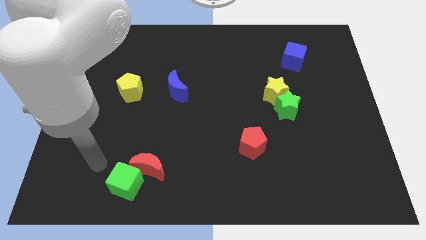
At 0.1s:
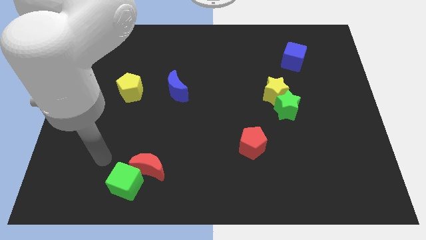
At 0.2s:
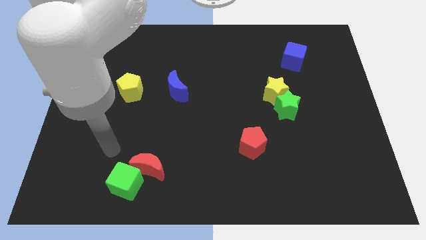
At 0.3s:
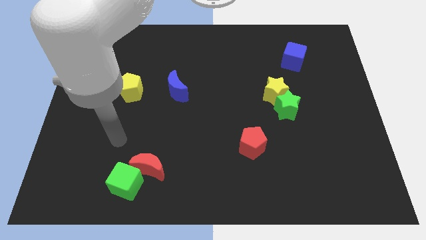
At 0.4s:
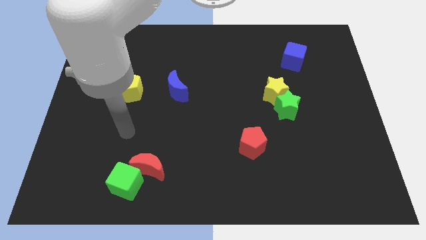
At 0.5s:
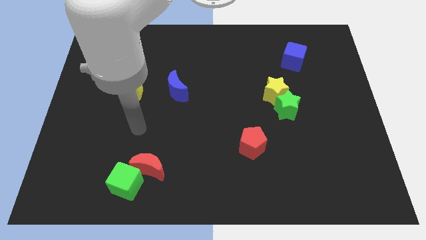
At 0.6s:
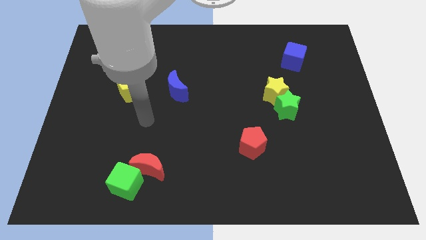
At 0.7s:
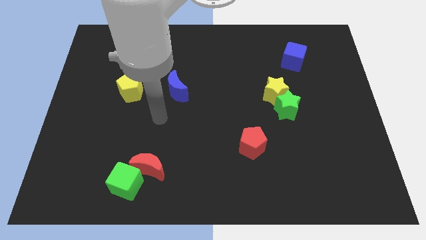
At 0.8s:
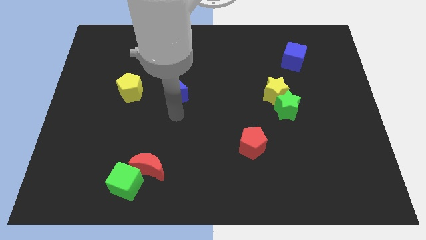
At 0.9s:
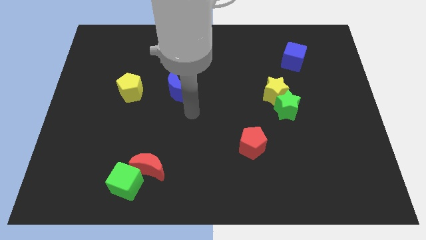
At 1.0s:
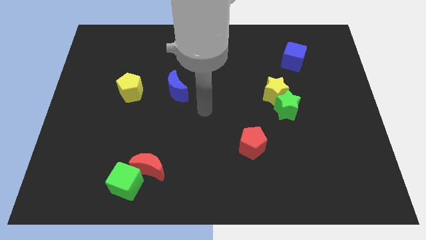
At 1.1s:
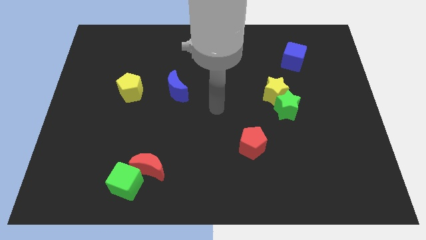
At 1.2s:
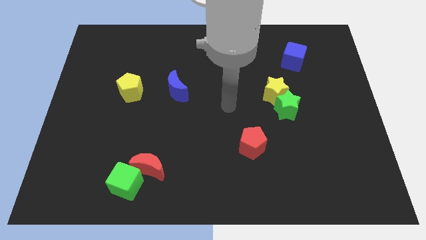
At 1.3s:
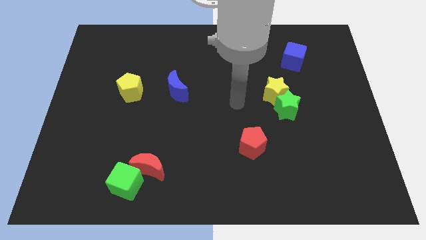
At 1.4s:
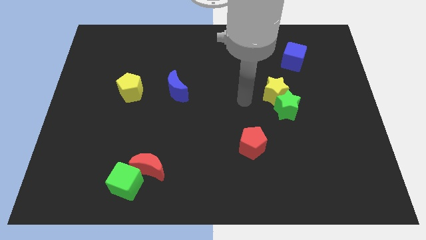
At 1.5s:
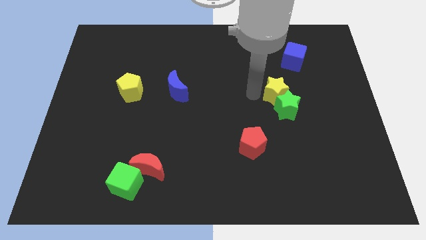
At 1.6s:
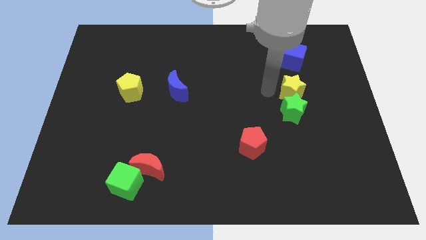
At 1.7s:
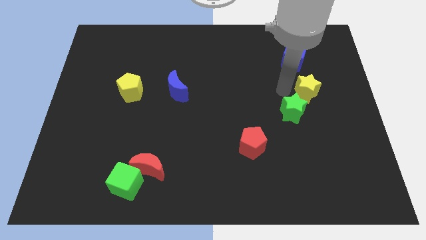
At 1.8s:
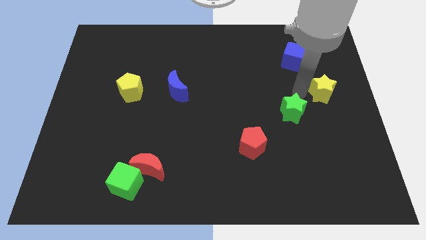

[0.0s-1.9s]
move the green star away from the yellow star

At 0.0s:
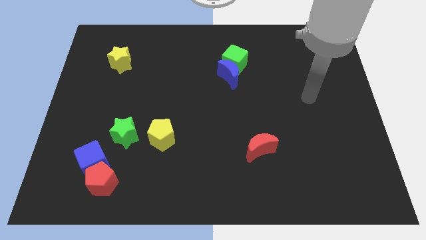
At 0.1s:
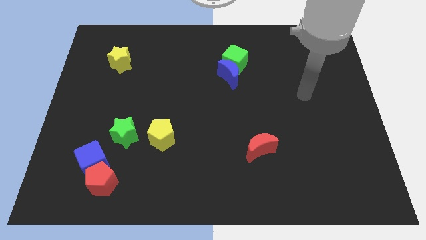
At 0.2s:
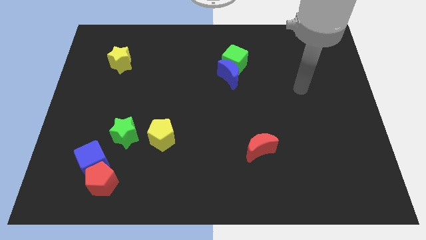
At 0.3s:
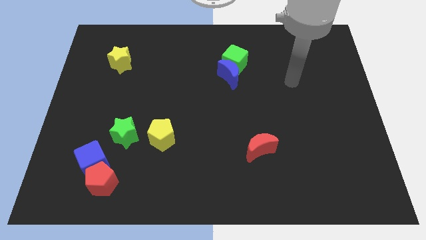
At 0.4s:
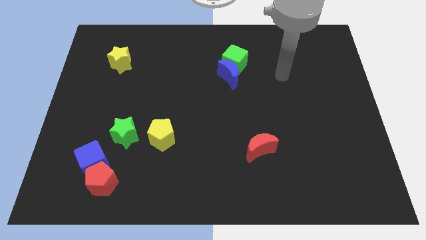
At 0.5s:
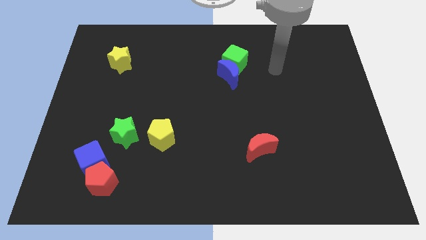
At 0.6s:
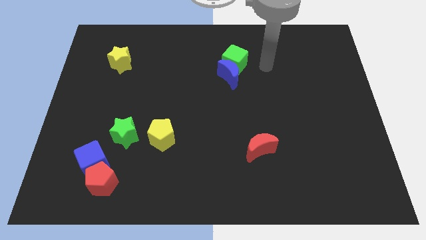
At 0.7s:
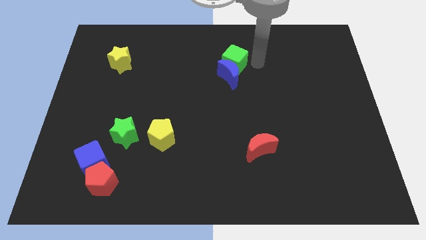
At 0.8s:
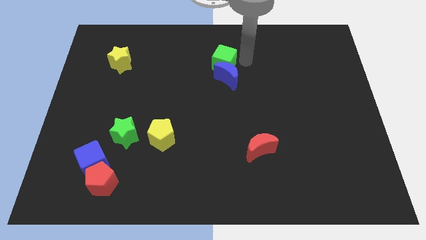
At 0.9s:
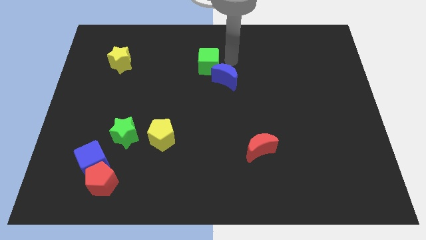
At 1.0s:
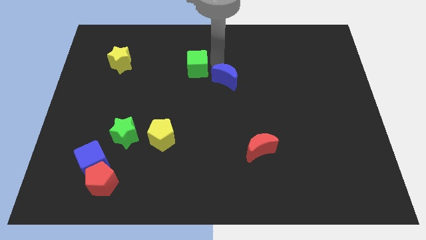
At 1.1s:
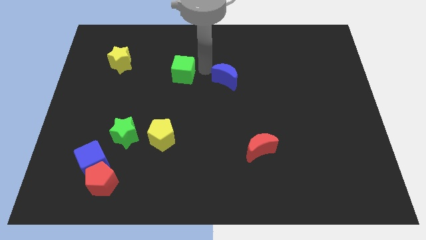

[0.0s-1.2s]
separate the blue moon from the green cube

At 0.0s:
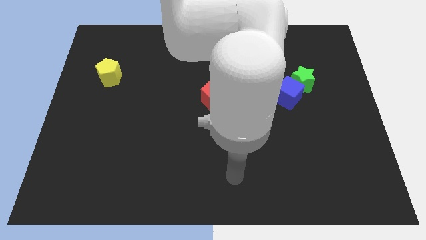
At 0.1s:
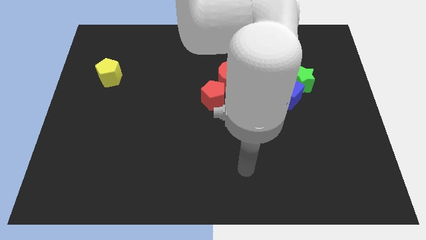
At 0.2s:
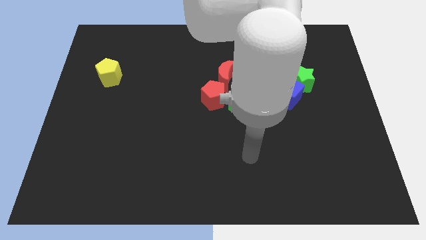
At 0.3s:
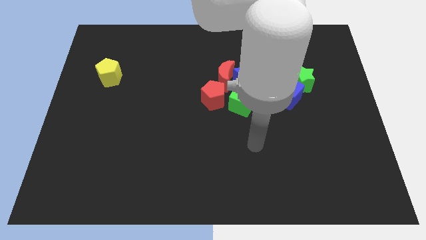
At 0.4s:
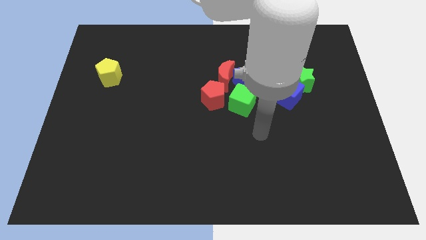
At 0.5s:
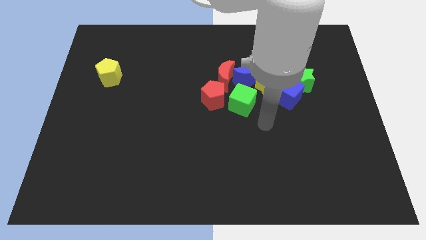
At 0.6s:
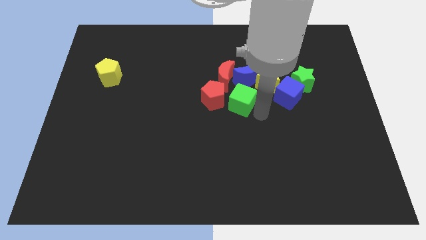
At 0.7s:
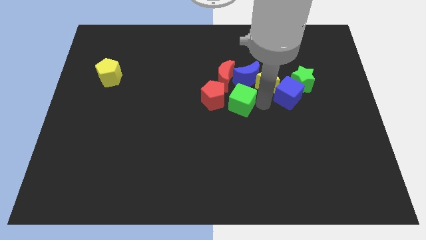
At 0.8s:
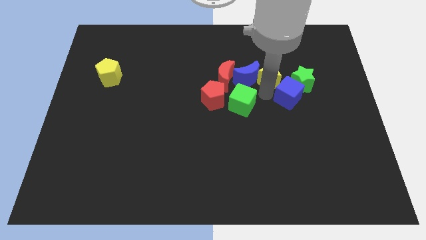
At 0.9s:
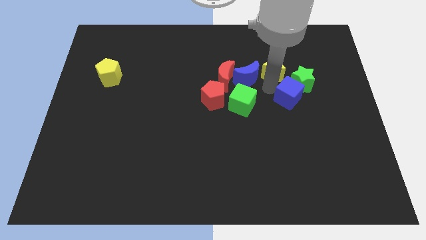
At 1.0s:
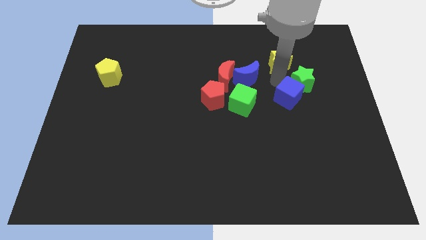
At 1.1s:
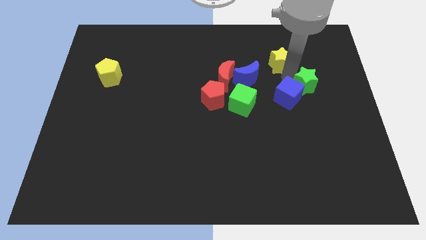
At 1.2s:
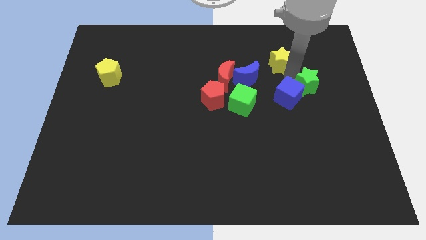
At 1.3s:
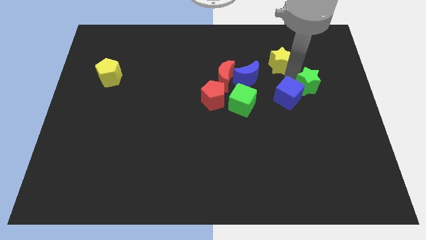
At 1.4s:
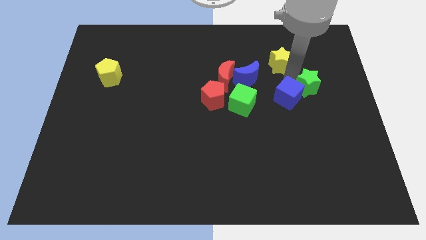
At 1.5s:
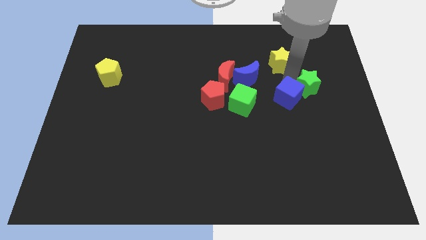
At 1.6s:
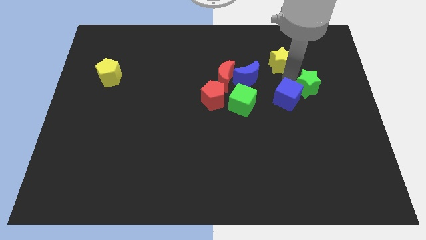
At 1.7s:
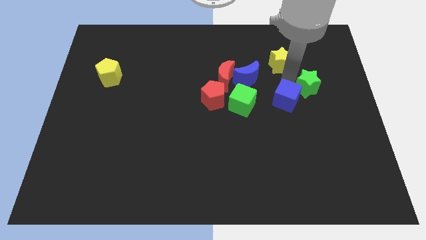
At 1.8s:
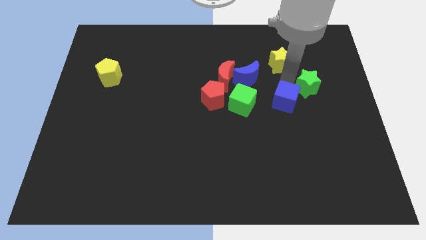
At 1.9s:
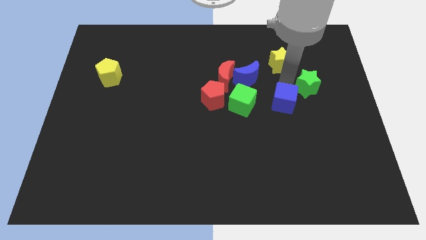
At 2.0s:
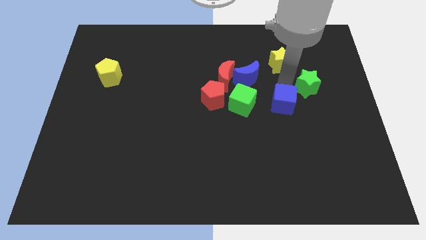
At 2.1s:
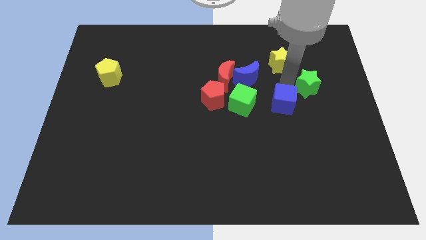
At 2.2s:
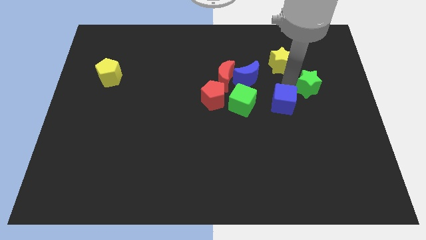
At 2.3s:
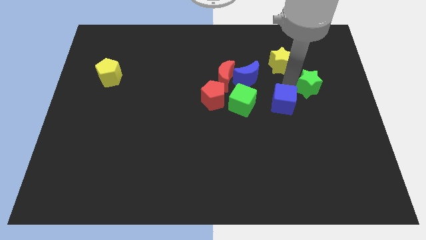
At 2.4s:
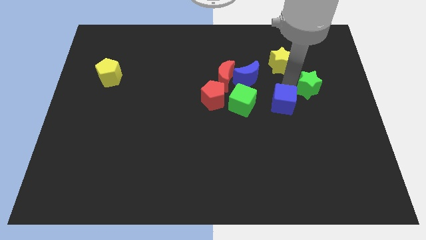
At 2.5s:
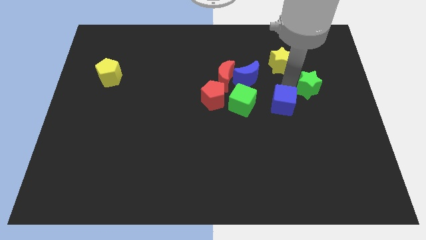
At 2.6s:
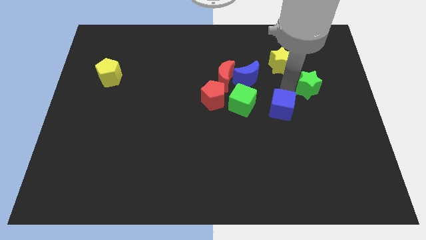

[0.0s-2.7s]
separate the blue cube from the green star and yellow star

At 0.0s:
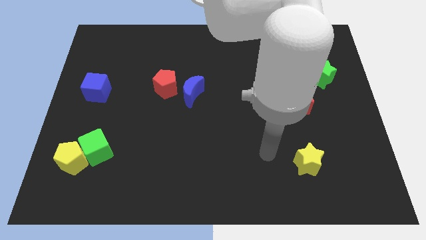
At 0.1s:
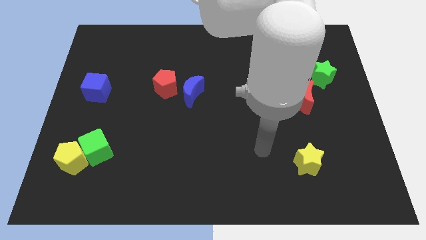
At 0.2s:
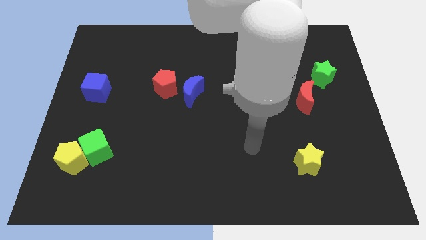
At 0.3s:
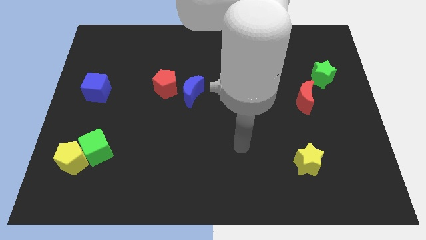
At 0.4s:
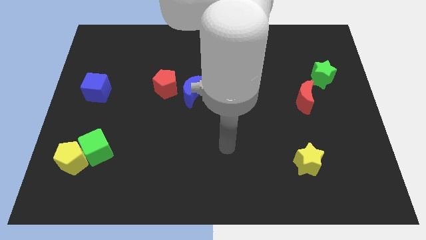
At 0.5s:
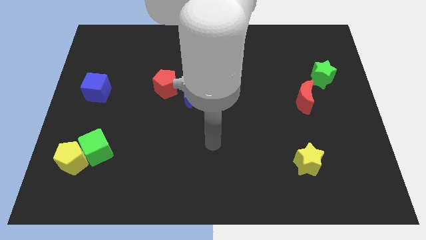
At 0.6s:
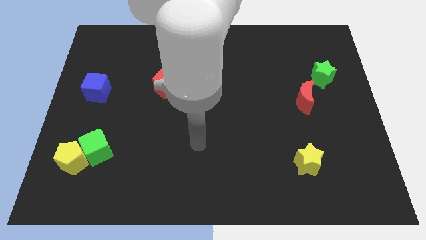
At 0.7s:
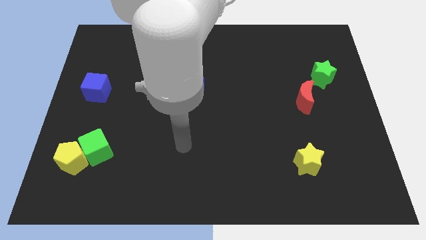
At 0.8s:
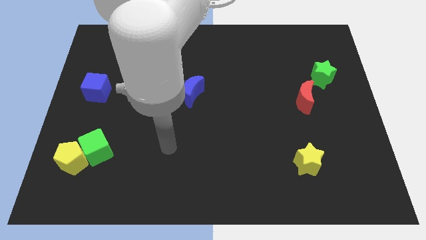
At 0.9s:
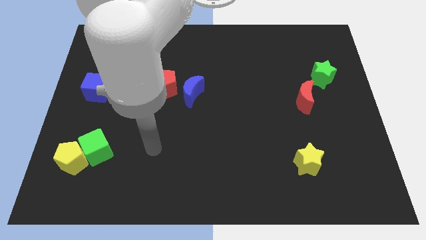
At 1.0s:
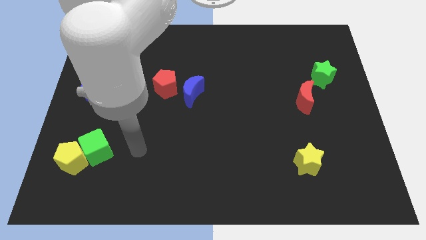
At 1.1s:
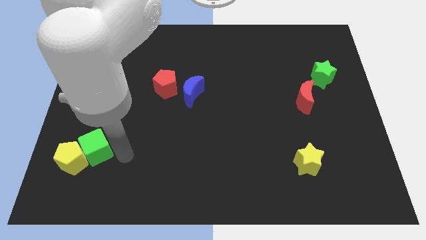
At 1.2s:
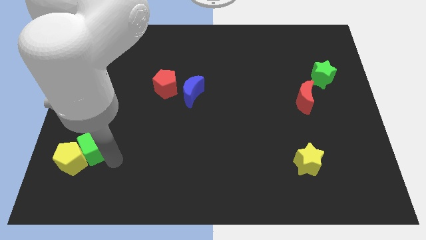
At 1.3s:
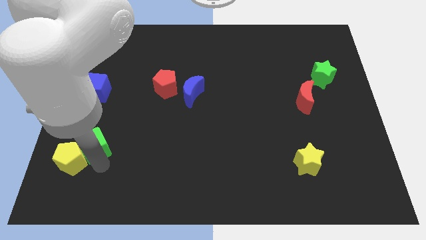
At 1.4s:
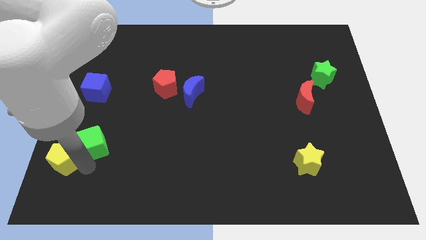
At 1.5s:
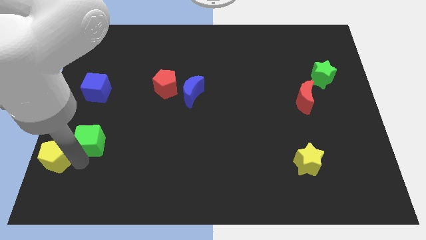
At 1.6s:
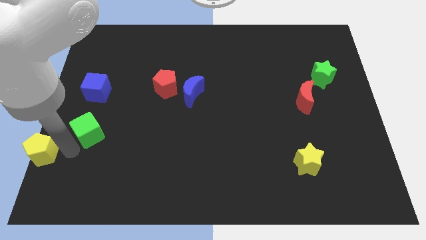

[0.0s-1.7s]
separate the green cube from the yellow pentagon

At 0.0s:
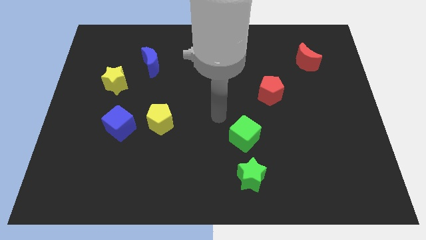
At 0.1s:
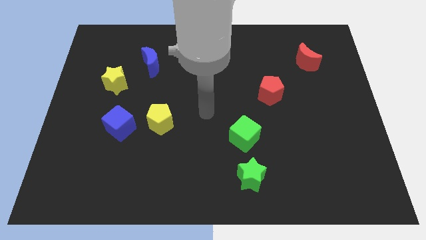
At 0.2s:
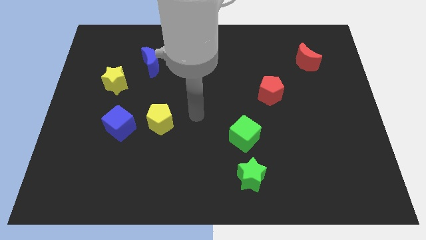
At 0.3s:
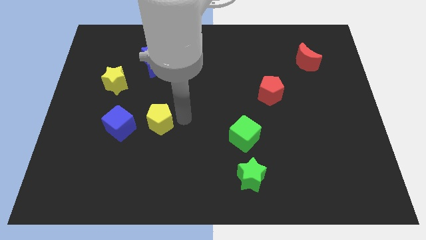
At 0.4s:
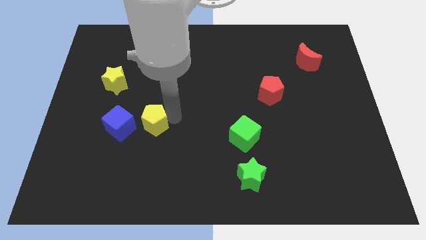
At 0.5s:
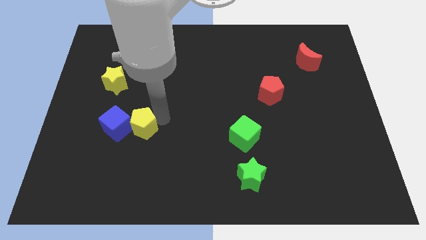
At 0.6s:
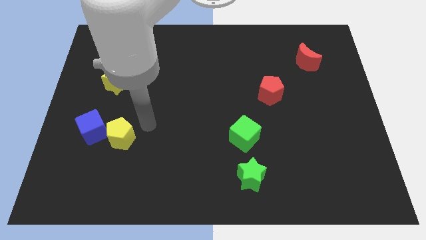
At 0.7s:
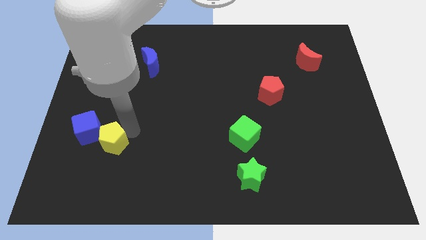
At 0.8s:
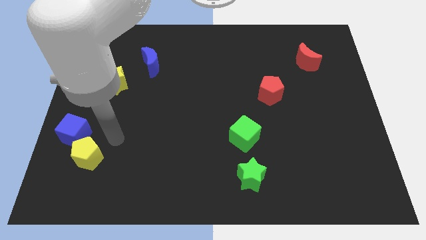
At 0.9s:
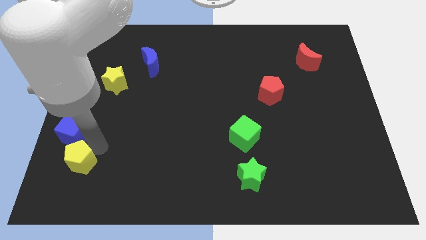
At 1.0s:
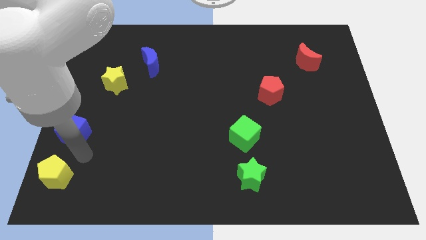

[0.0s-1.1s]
separate the blue cube from the yellow pentagon

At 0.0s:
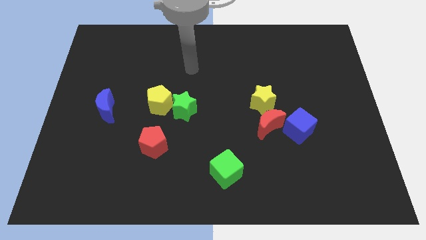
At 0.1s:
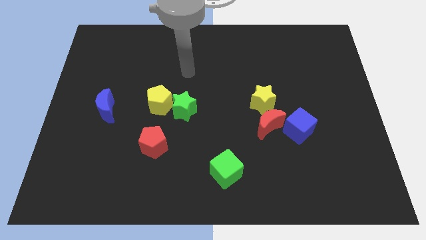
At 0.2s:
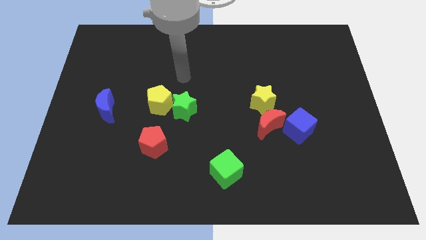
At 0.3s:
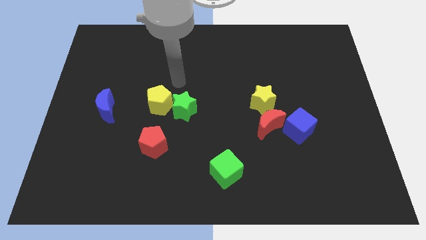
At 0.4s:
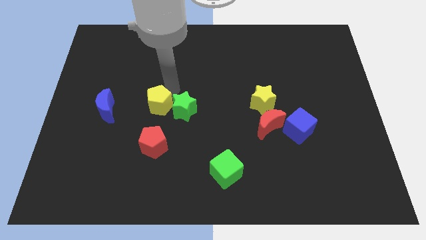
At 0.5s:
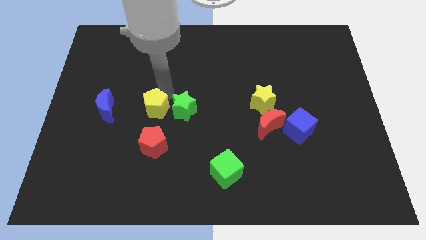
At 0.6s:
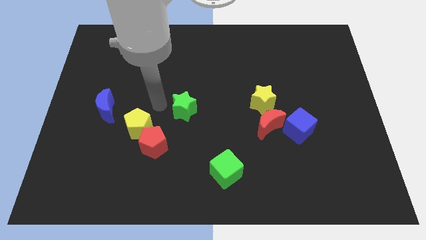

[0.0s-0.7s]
pull the green star apart from the yellow pentagon
